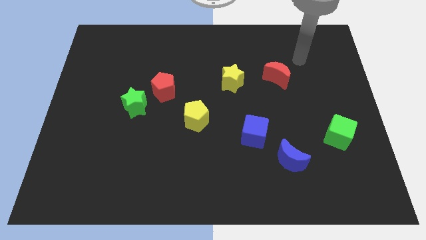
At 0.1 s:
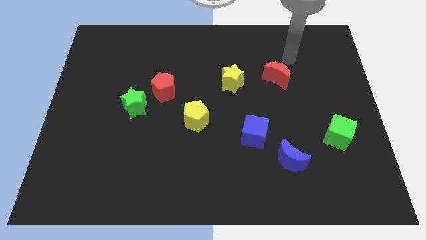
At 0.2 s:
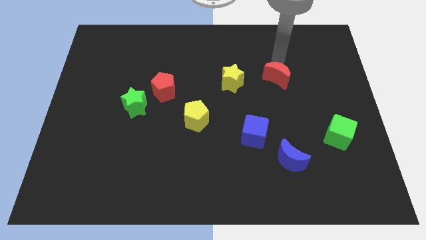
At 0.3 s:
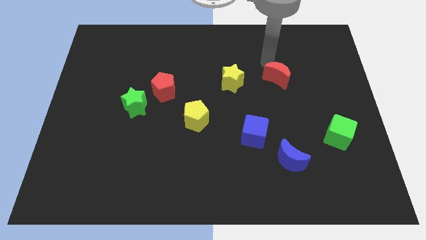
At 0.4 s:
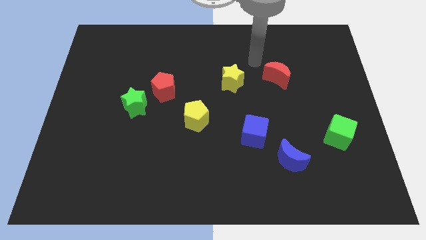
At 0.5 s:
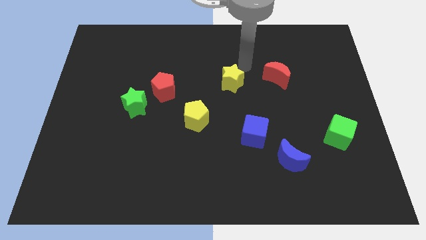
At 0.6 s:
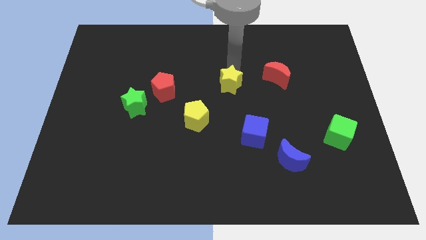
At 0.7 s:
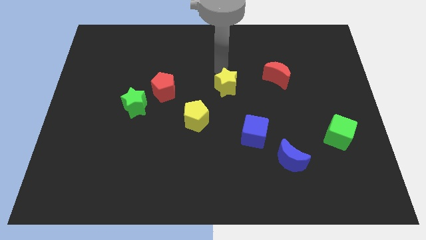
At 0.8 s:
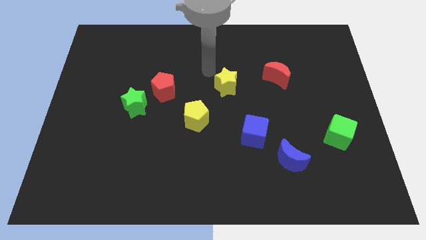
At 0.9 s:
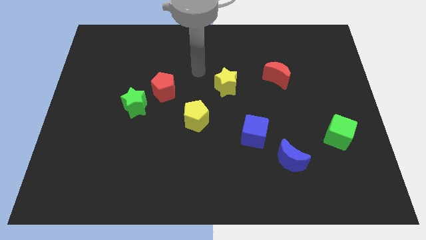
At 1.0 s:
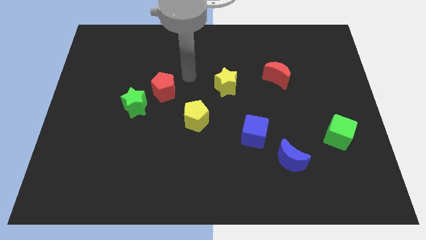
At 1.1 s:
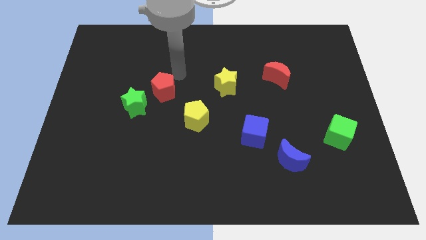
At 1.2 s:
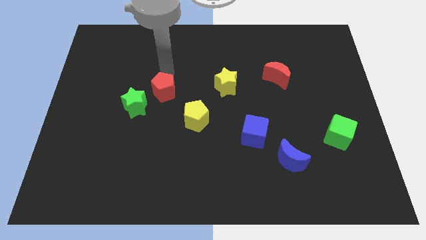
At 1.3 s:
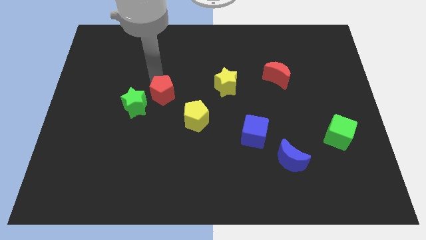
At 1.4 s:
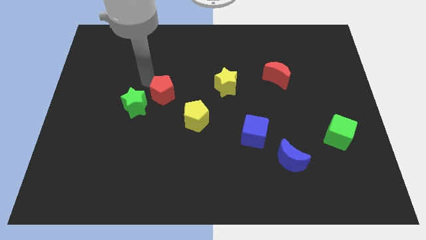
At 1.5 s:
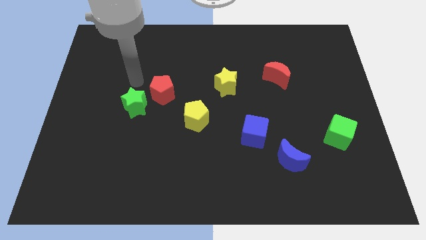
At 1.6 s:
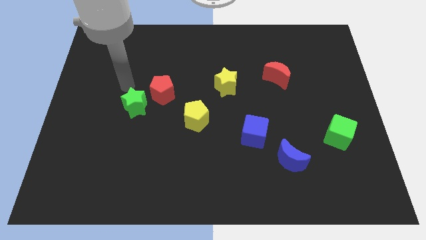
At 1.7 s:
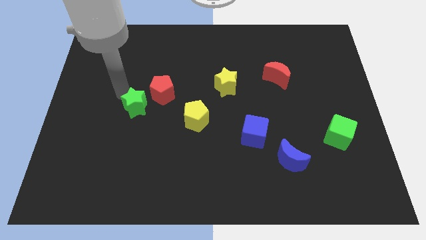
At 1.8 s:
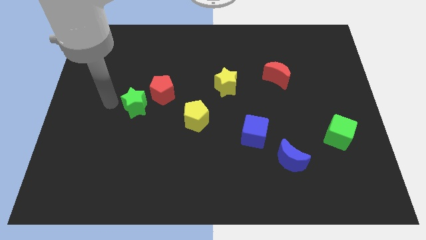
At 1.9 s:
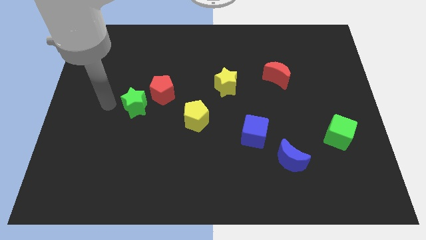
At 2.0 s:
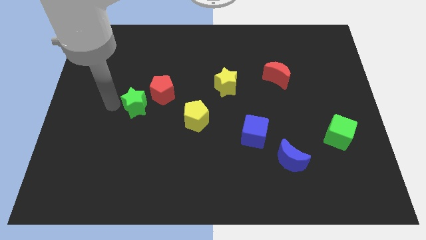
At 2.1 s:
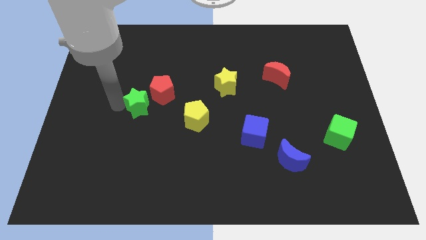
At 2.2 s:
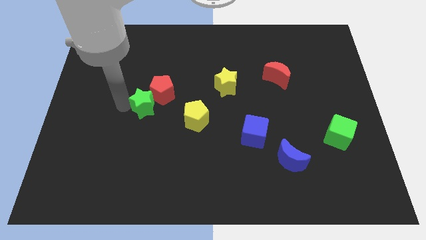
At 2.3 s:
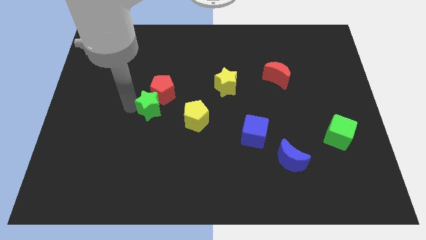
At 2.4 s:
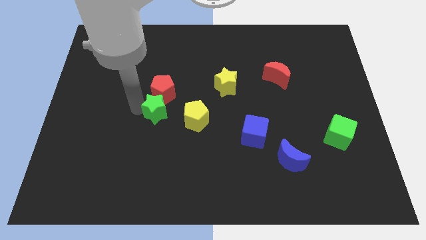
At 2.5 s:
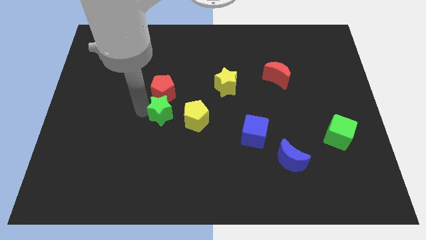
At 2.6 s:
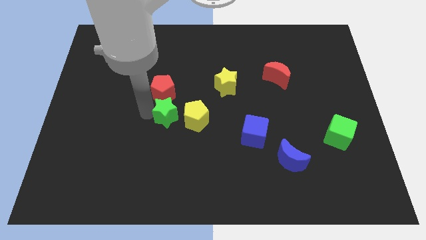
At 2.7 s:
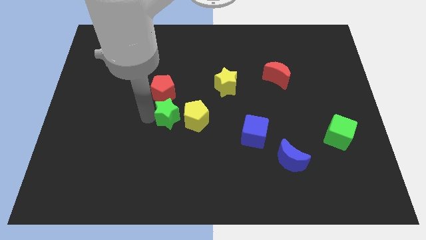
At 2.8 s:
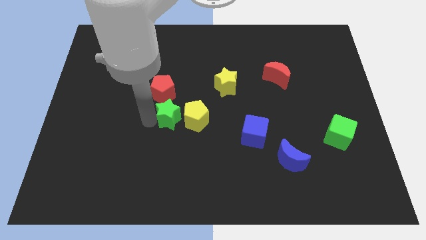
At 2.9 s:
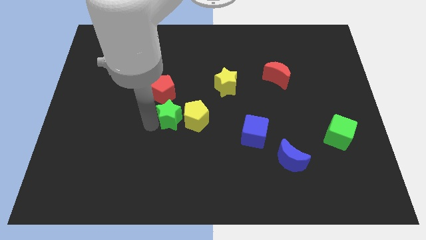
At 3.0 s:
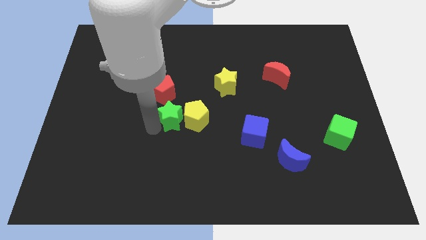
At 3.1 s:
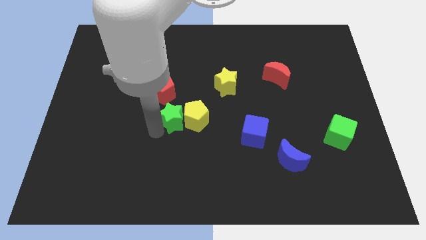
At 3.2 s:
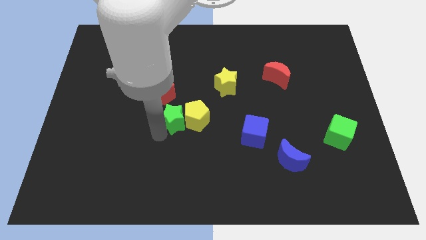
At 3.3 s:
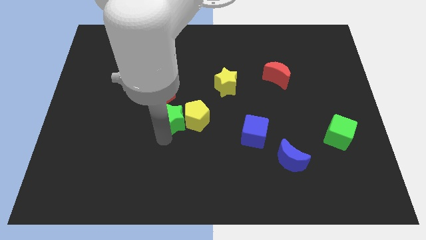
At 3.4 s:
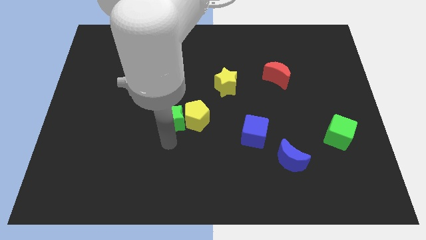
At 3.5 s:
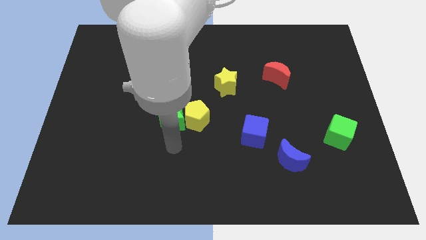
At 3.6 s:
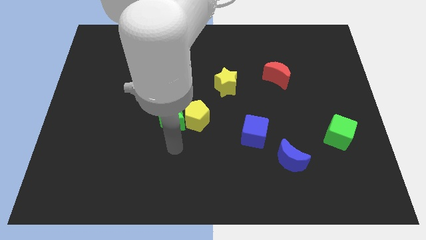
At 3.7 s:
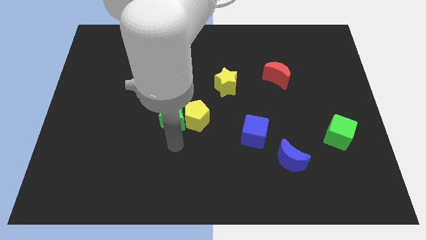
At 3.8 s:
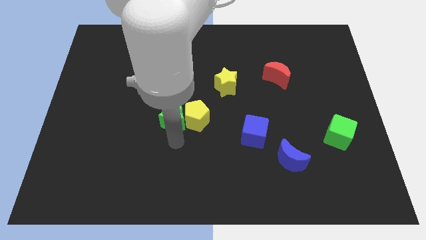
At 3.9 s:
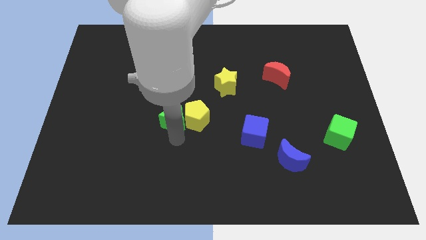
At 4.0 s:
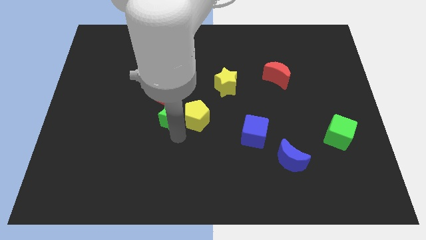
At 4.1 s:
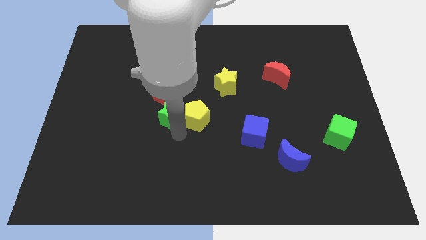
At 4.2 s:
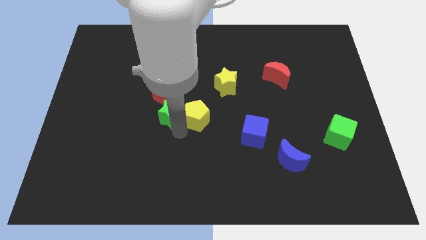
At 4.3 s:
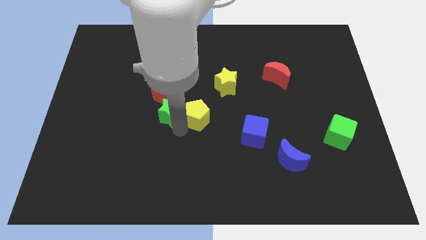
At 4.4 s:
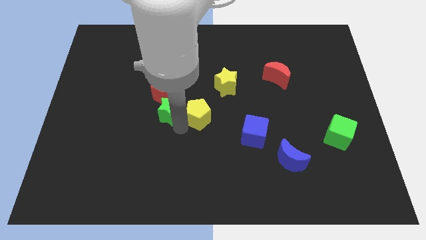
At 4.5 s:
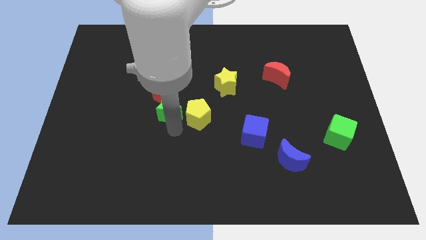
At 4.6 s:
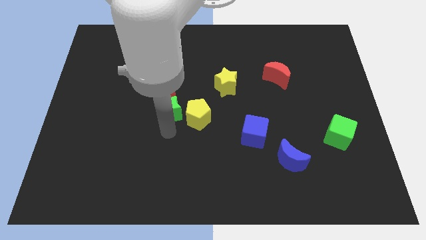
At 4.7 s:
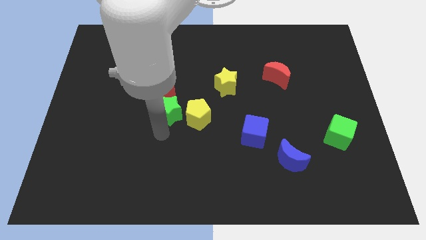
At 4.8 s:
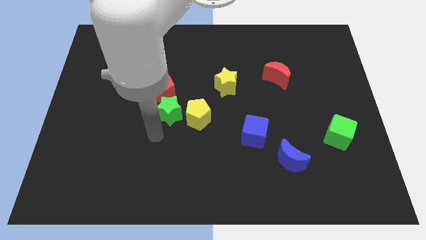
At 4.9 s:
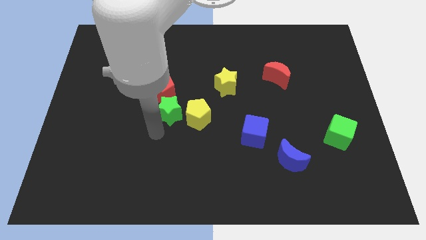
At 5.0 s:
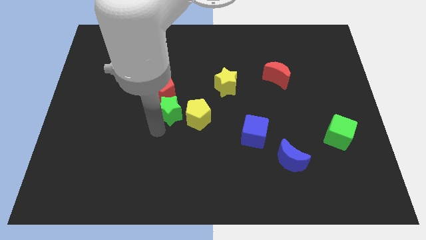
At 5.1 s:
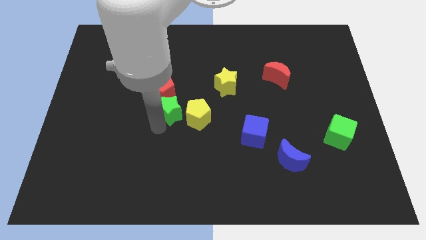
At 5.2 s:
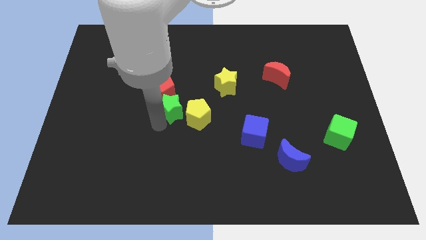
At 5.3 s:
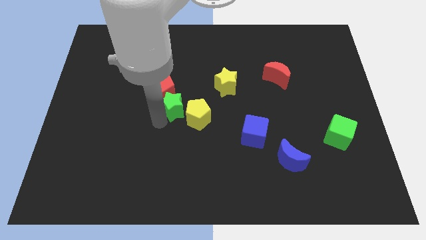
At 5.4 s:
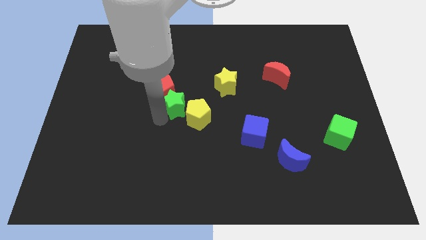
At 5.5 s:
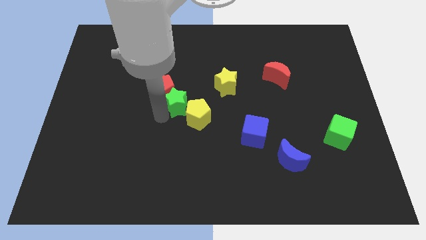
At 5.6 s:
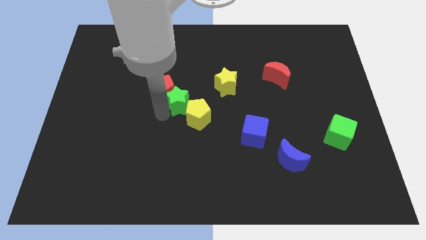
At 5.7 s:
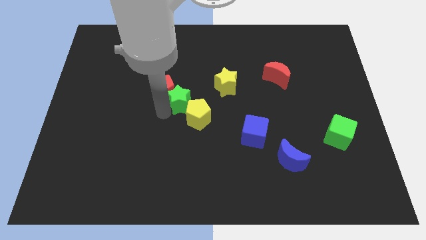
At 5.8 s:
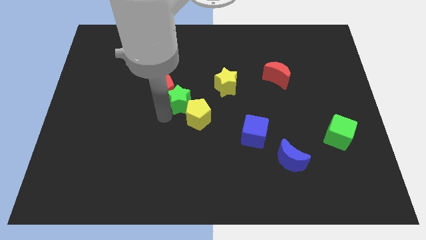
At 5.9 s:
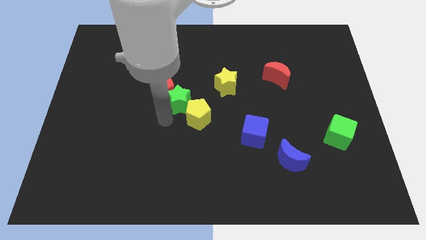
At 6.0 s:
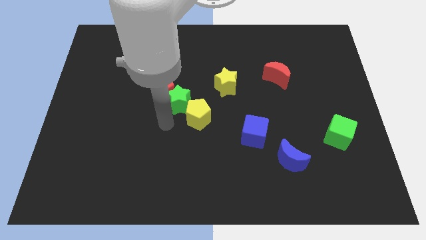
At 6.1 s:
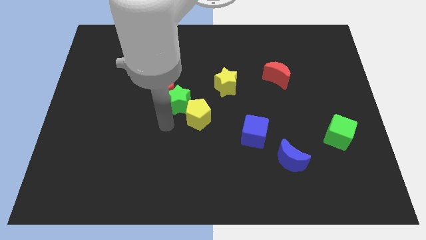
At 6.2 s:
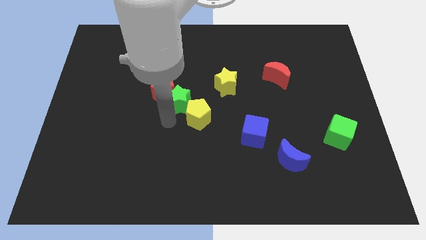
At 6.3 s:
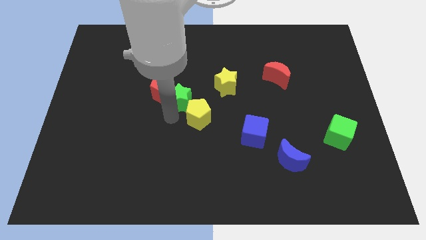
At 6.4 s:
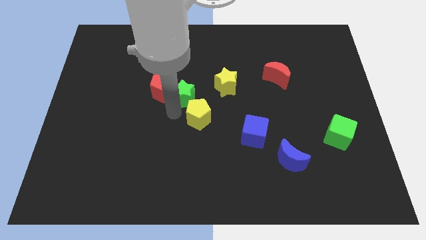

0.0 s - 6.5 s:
move the green star to the left side of the yellow star
